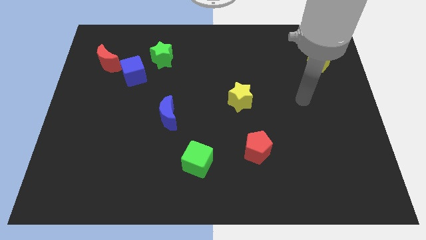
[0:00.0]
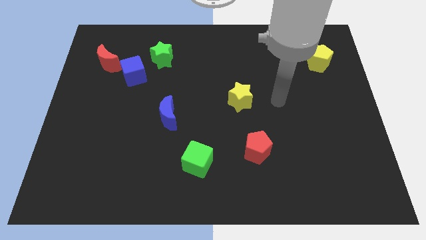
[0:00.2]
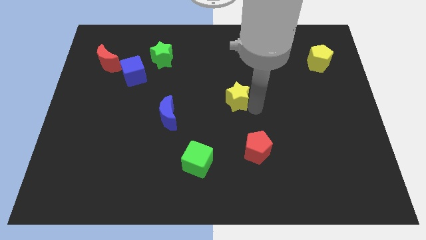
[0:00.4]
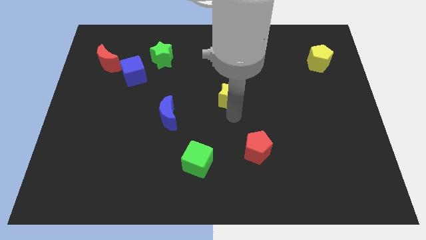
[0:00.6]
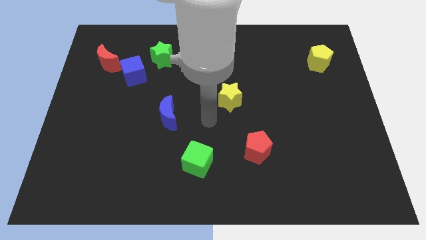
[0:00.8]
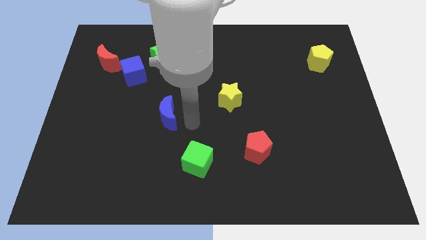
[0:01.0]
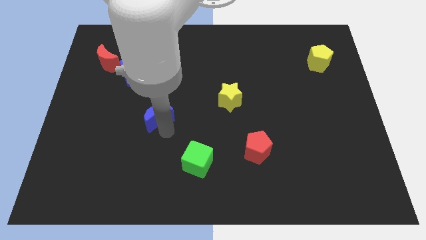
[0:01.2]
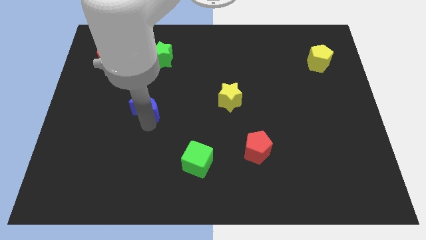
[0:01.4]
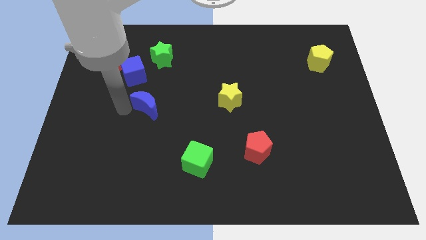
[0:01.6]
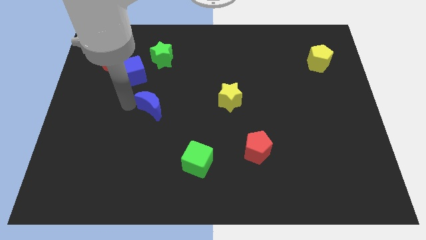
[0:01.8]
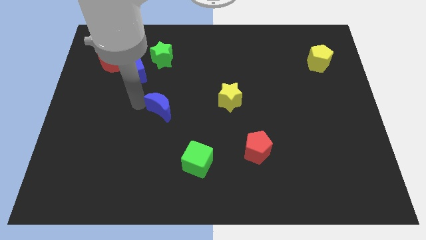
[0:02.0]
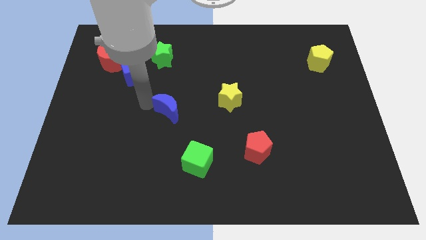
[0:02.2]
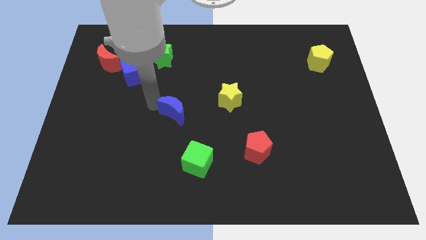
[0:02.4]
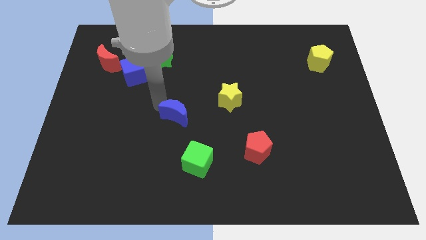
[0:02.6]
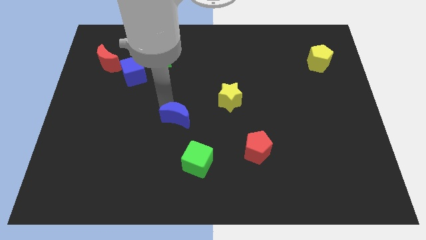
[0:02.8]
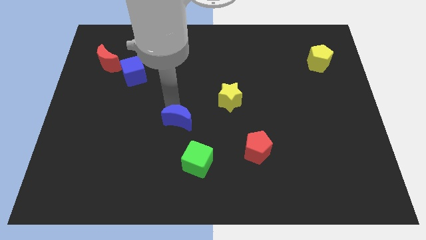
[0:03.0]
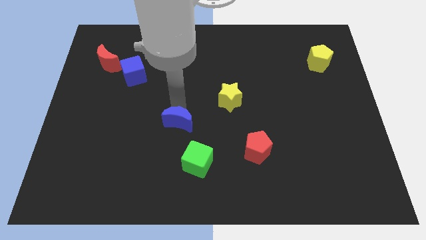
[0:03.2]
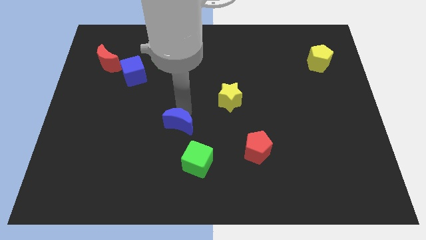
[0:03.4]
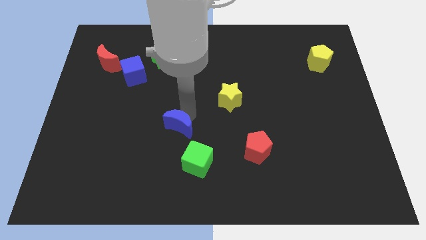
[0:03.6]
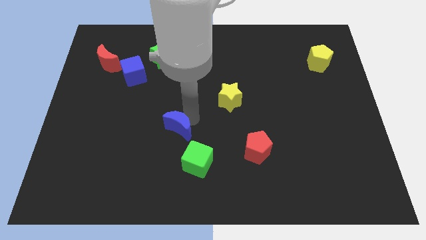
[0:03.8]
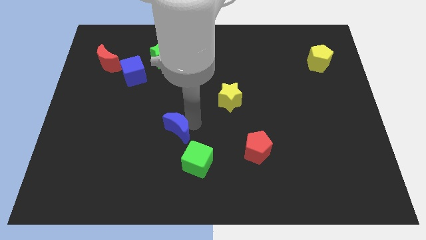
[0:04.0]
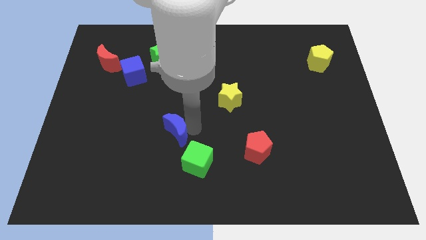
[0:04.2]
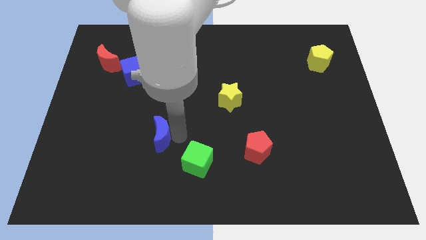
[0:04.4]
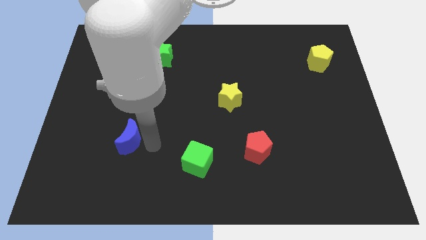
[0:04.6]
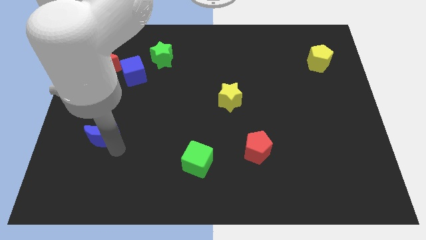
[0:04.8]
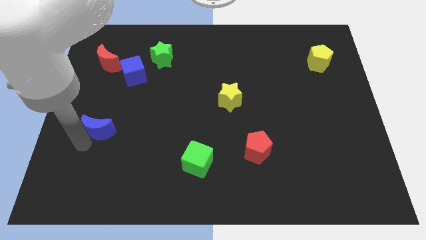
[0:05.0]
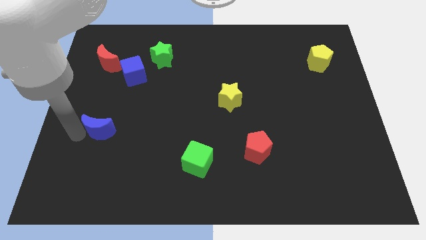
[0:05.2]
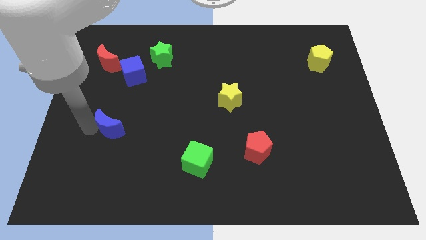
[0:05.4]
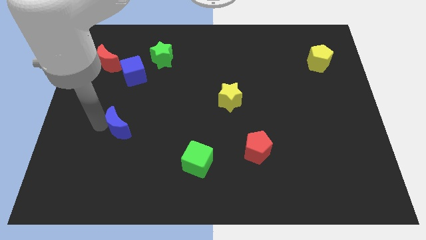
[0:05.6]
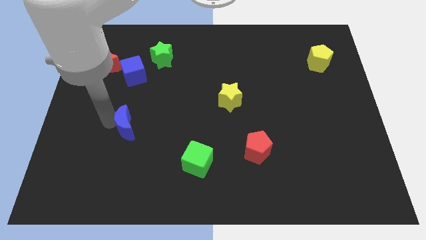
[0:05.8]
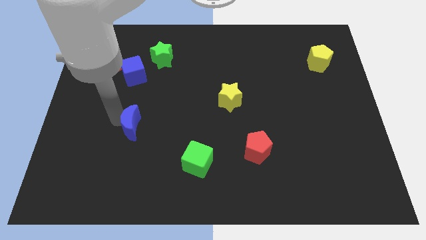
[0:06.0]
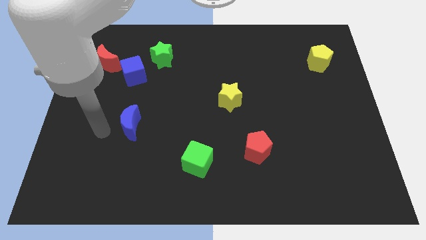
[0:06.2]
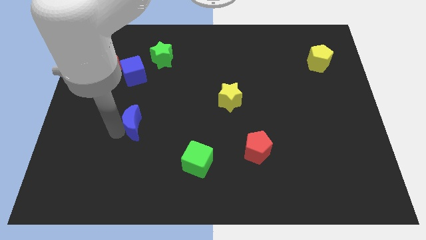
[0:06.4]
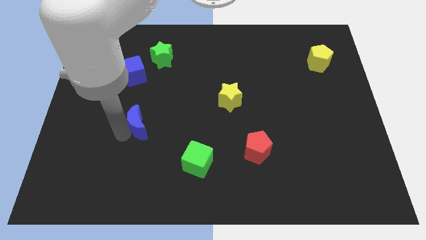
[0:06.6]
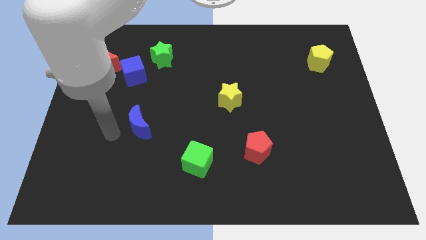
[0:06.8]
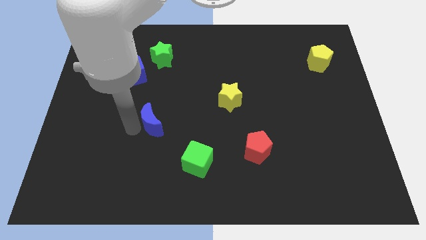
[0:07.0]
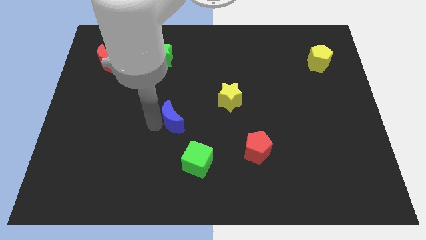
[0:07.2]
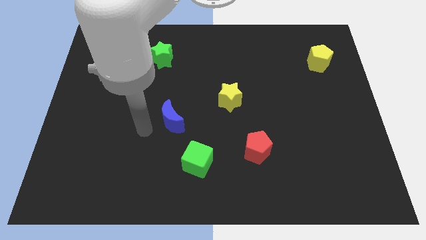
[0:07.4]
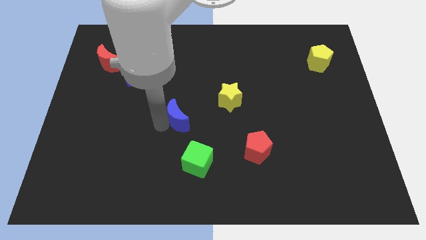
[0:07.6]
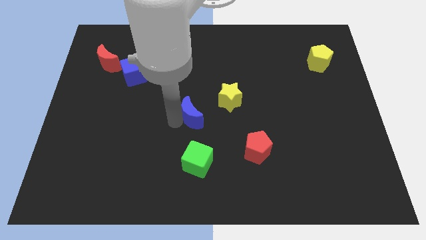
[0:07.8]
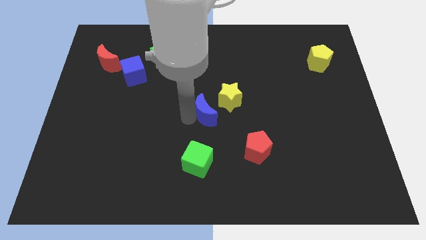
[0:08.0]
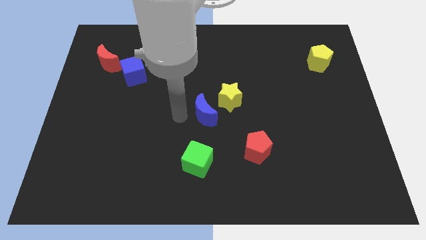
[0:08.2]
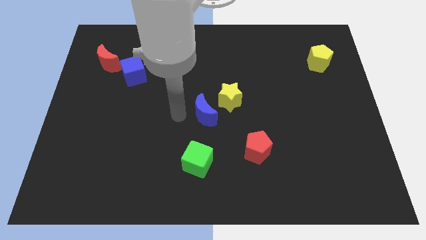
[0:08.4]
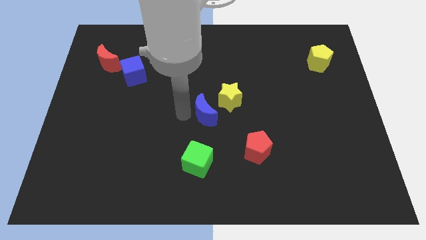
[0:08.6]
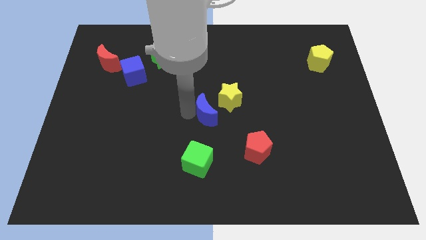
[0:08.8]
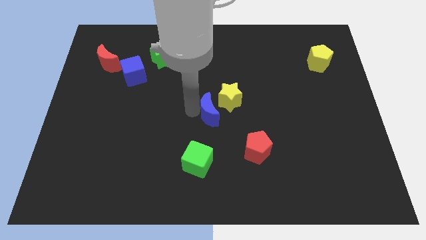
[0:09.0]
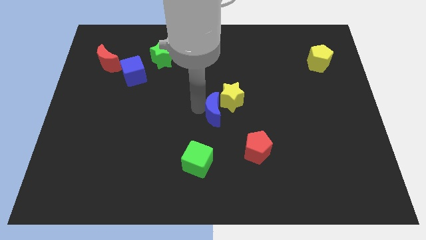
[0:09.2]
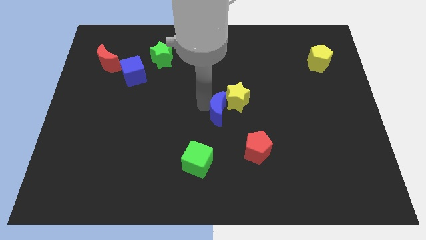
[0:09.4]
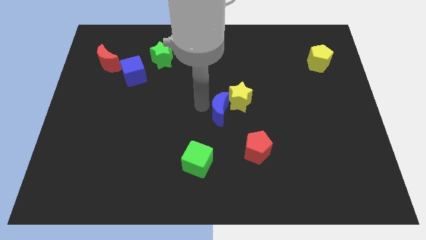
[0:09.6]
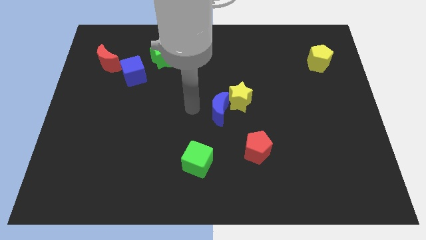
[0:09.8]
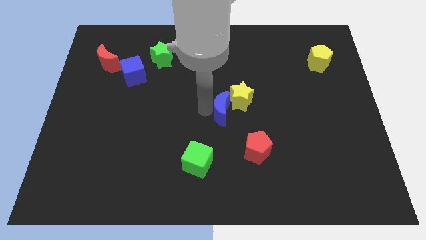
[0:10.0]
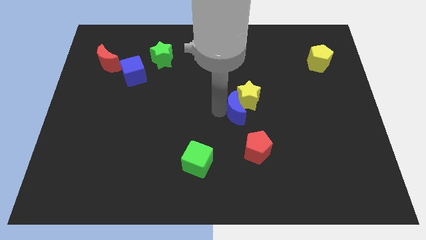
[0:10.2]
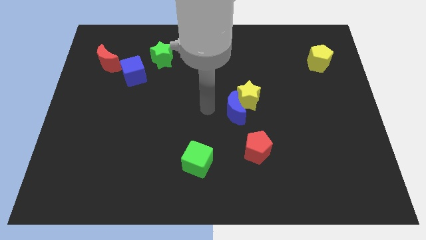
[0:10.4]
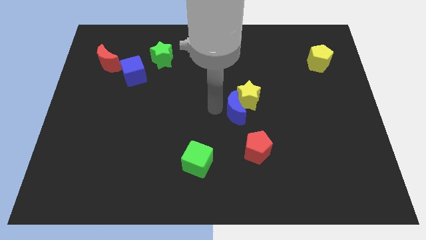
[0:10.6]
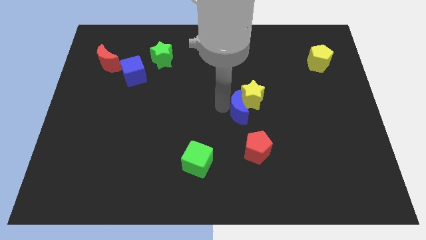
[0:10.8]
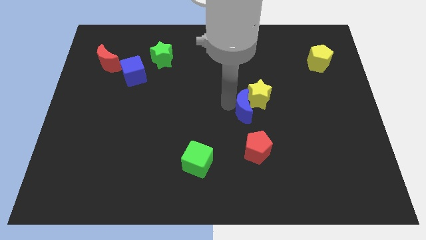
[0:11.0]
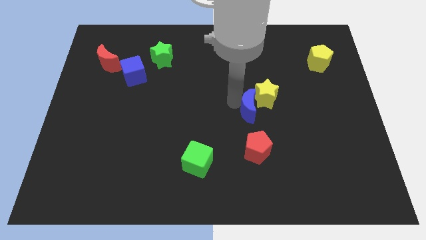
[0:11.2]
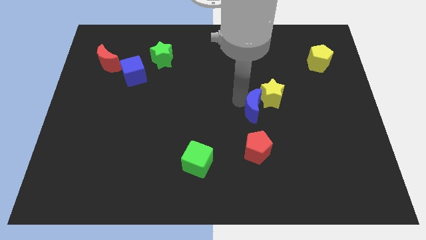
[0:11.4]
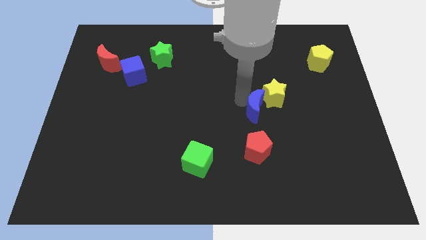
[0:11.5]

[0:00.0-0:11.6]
slide the blue moon to the right

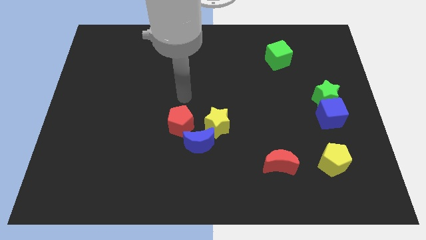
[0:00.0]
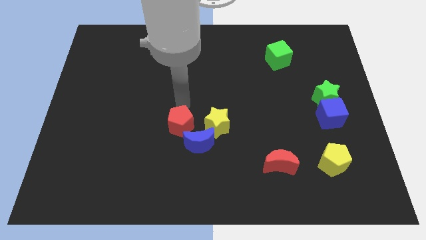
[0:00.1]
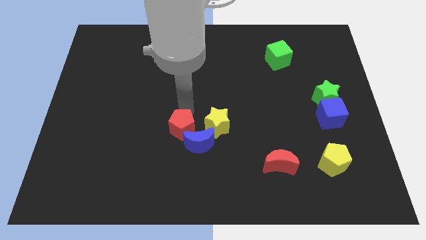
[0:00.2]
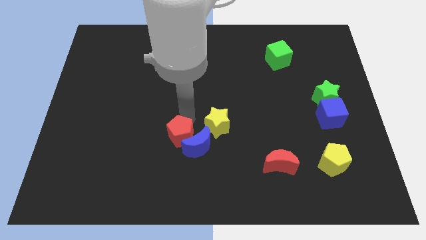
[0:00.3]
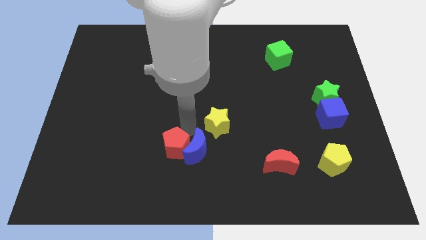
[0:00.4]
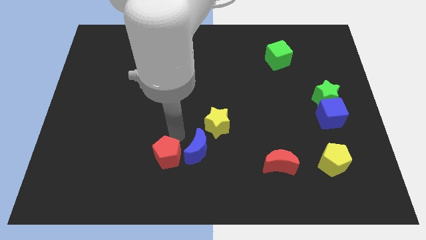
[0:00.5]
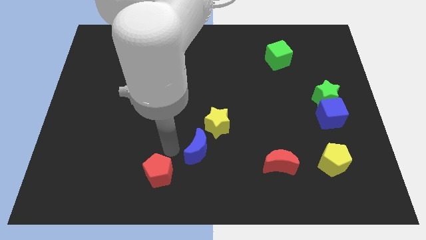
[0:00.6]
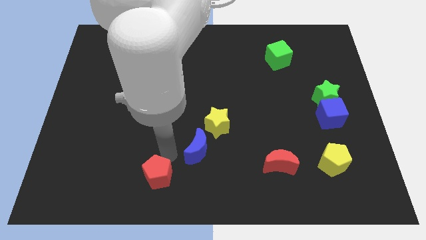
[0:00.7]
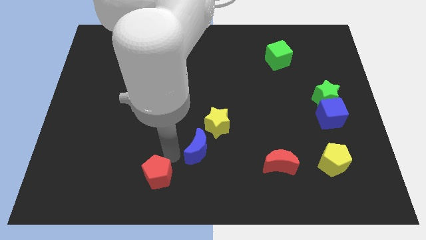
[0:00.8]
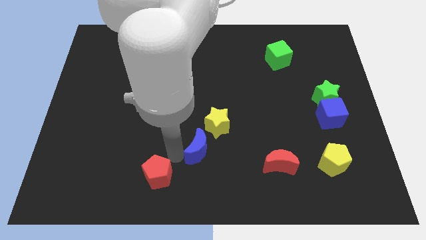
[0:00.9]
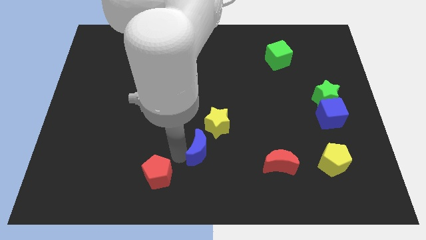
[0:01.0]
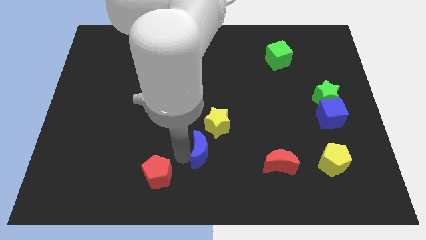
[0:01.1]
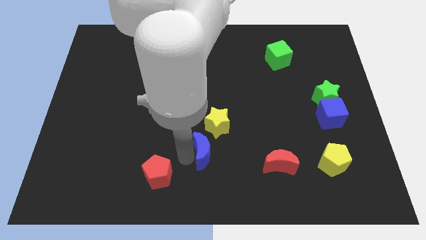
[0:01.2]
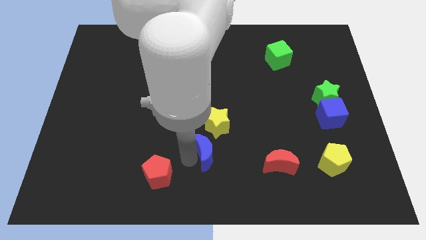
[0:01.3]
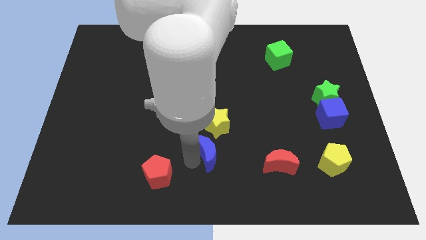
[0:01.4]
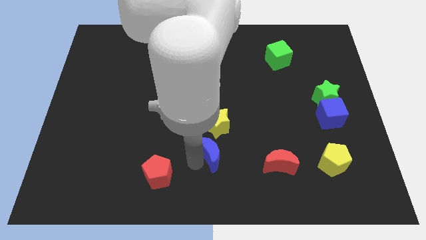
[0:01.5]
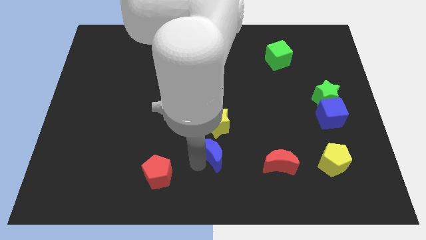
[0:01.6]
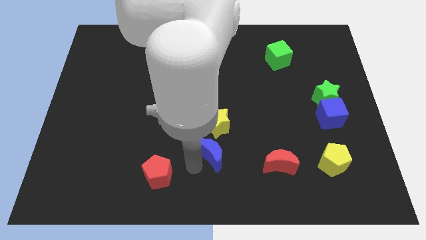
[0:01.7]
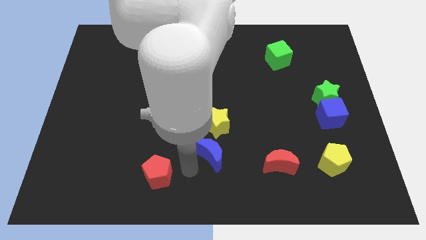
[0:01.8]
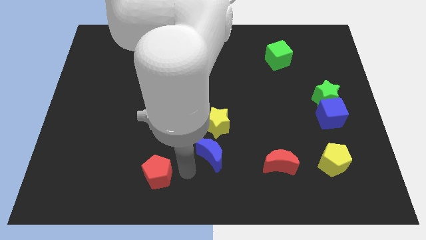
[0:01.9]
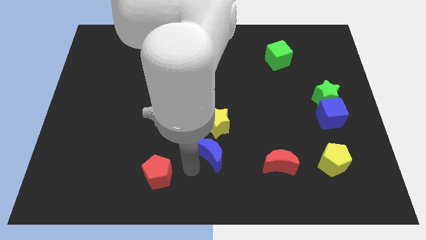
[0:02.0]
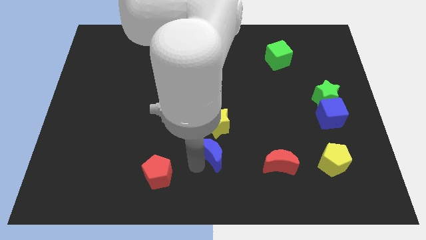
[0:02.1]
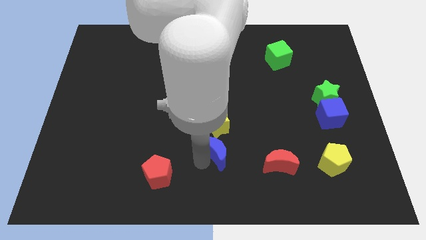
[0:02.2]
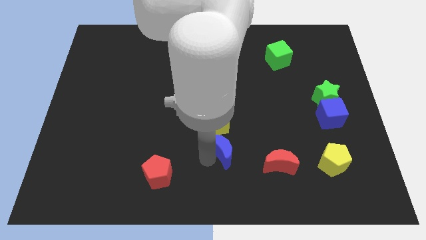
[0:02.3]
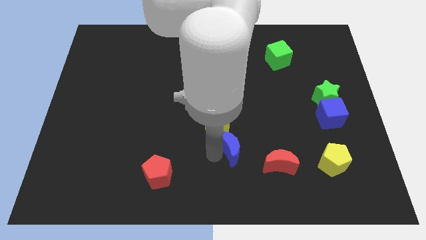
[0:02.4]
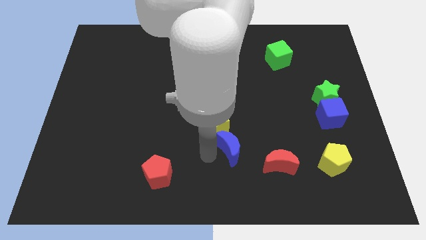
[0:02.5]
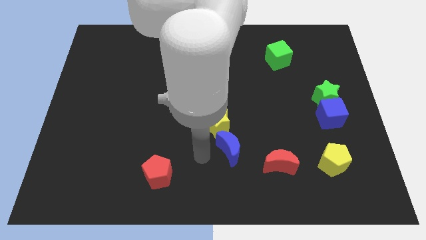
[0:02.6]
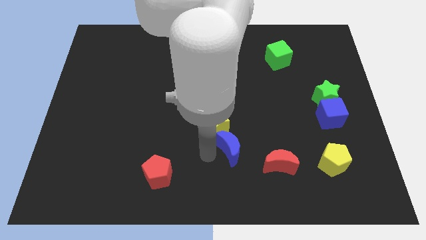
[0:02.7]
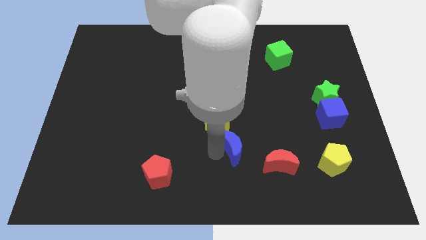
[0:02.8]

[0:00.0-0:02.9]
slightly push the blue moon right
